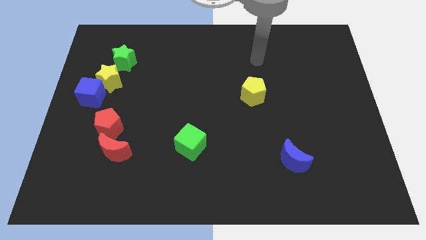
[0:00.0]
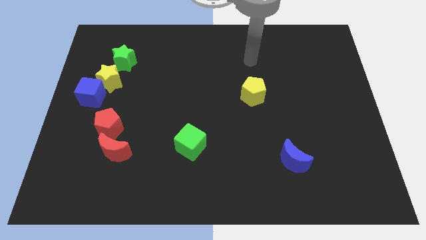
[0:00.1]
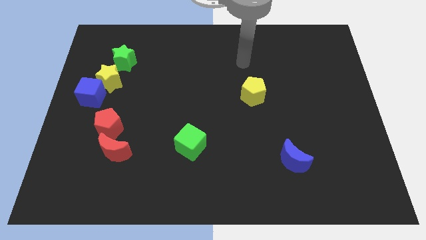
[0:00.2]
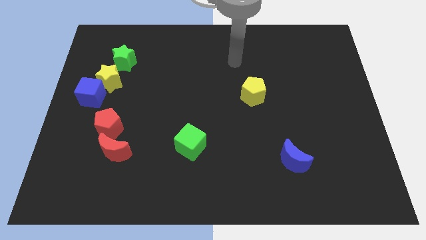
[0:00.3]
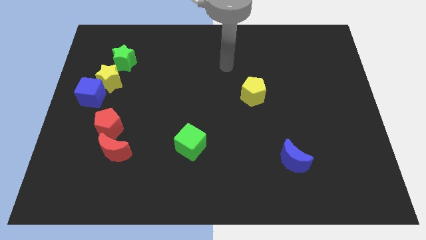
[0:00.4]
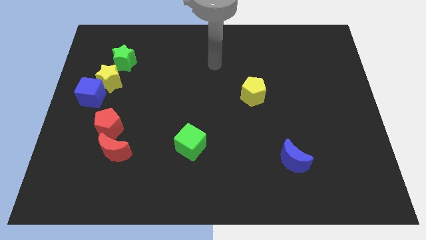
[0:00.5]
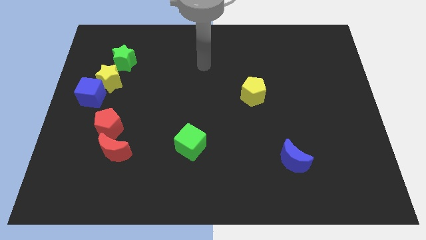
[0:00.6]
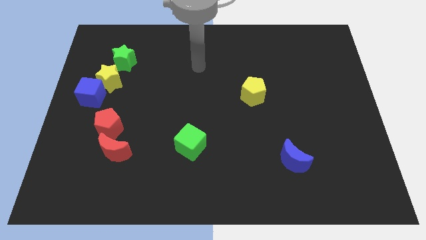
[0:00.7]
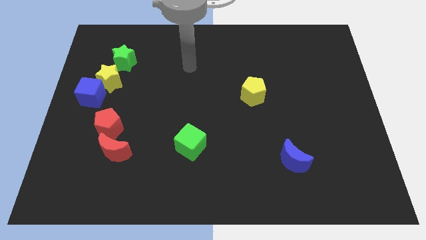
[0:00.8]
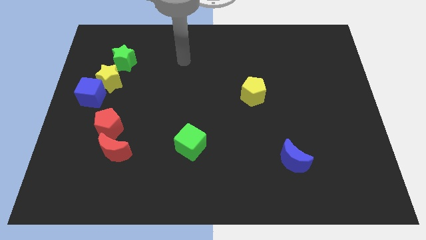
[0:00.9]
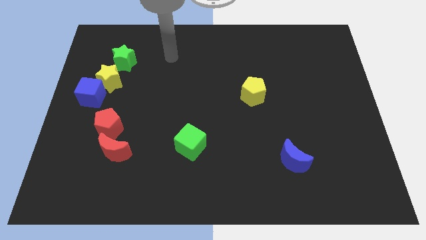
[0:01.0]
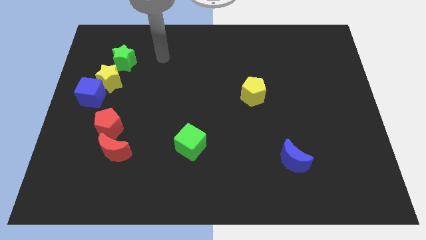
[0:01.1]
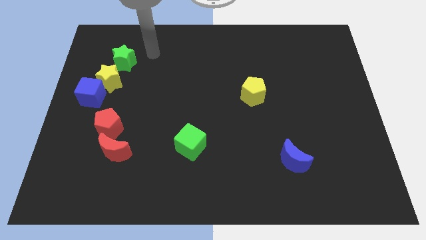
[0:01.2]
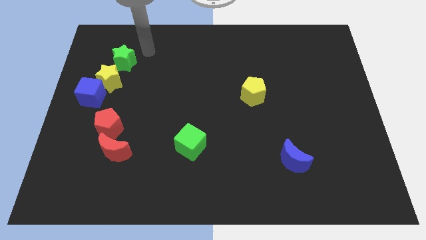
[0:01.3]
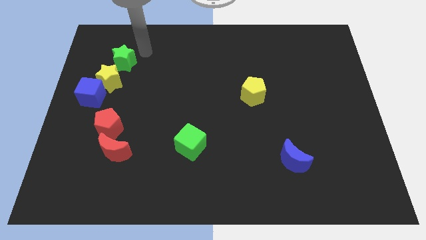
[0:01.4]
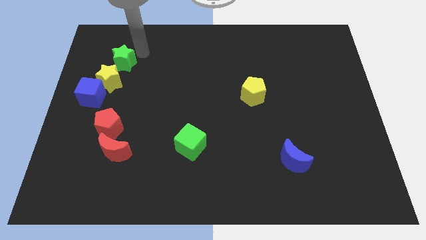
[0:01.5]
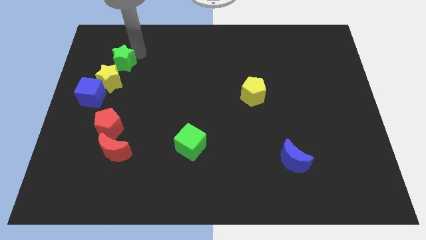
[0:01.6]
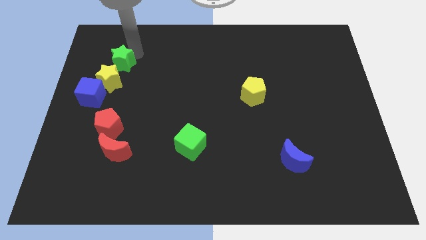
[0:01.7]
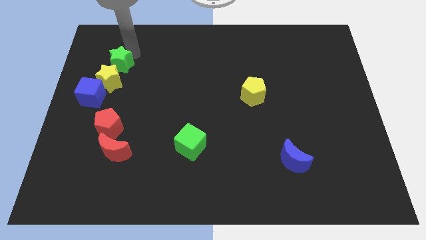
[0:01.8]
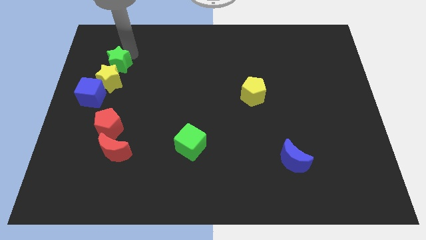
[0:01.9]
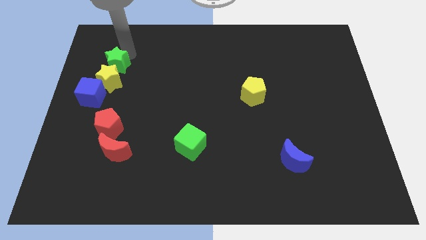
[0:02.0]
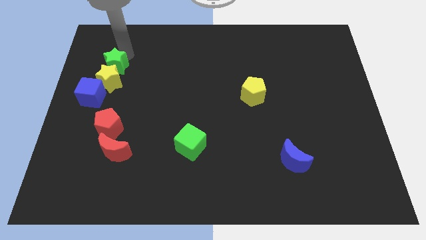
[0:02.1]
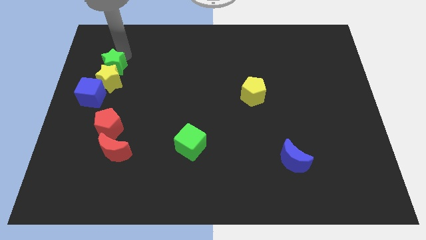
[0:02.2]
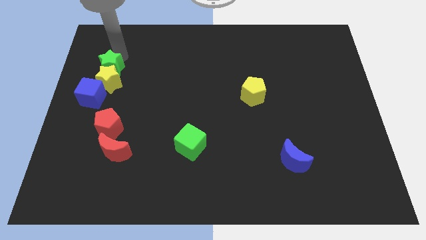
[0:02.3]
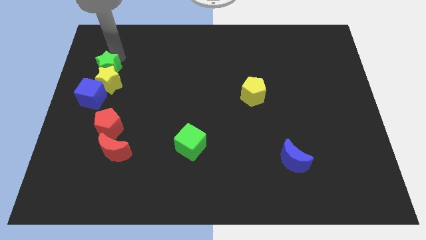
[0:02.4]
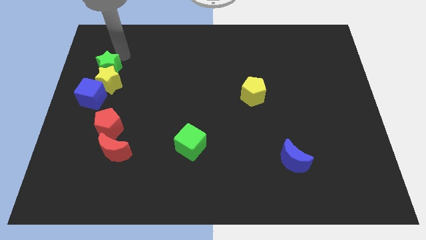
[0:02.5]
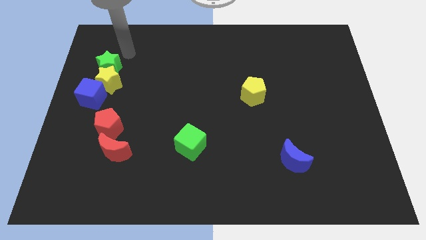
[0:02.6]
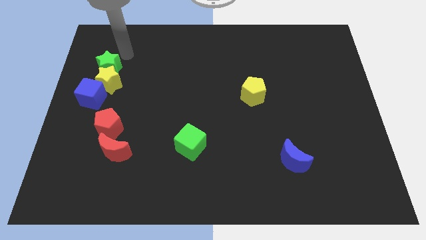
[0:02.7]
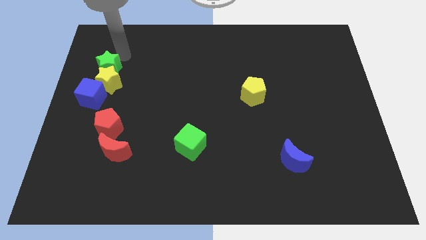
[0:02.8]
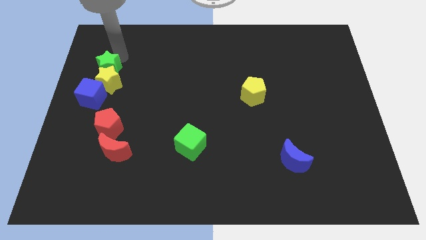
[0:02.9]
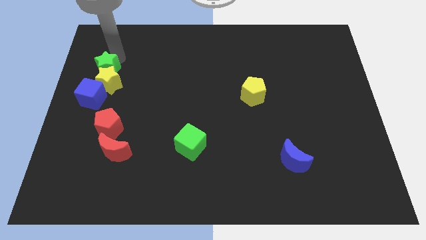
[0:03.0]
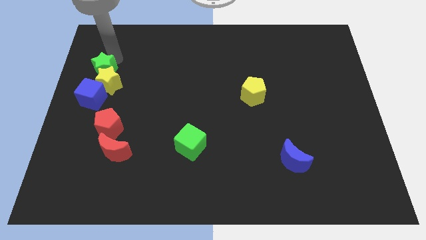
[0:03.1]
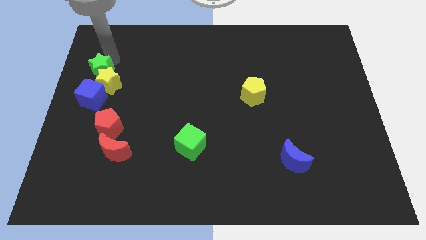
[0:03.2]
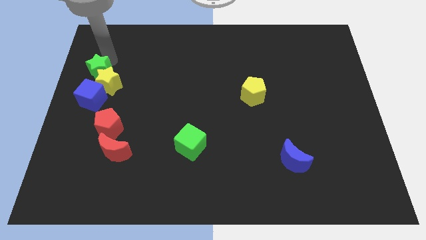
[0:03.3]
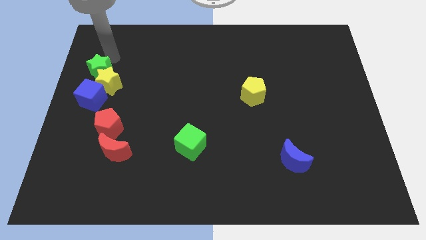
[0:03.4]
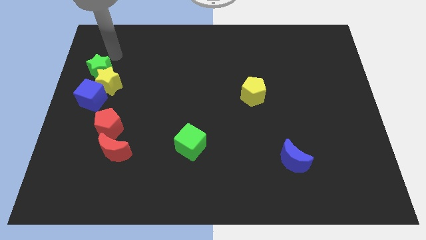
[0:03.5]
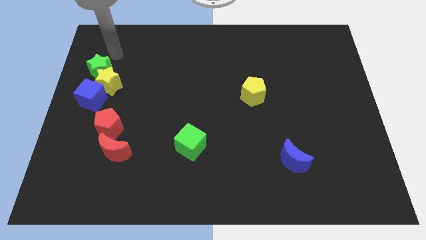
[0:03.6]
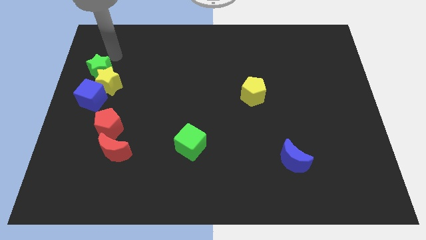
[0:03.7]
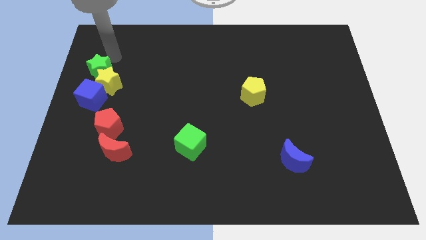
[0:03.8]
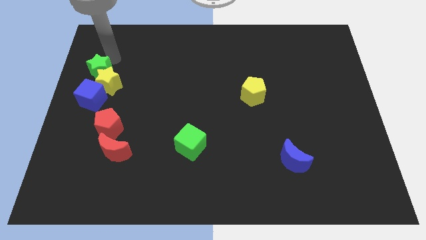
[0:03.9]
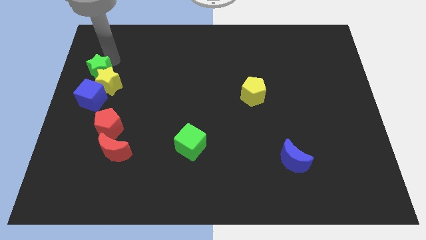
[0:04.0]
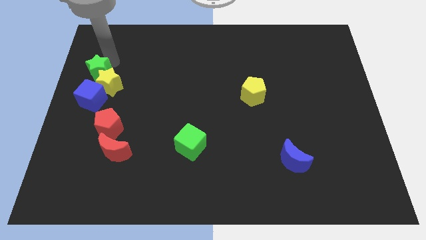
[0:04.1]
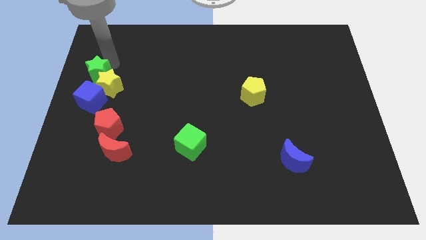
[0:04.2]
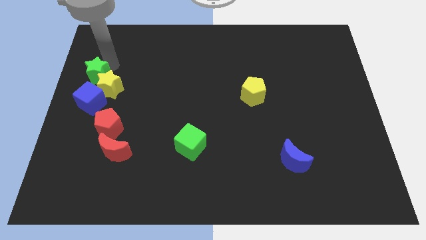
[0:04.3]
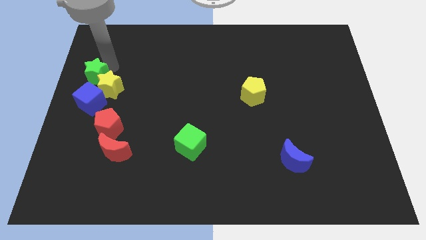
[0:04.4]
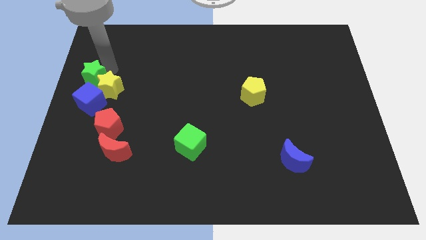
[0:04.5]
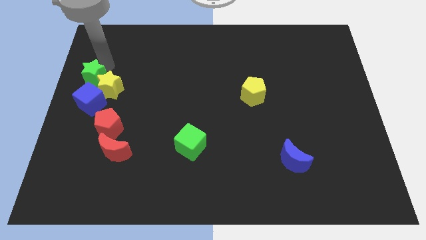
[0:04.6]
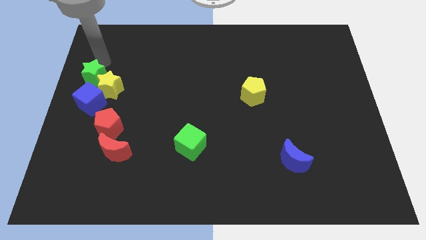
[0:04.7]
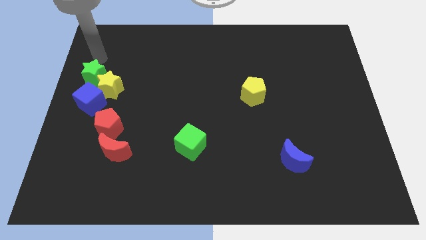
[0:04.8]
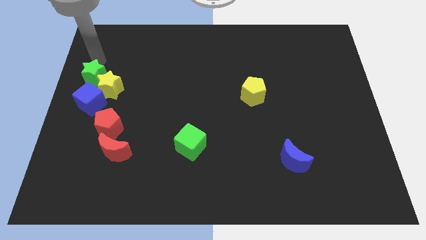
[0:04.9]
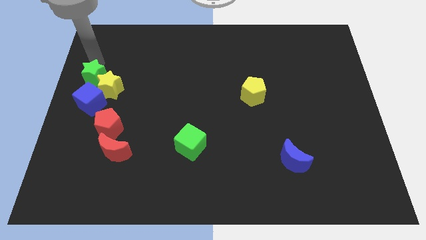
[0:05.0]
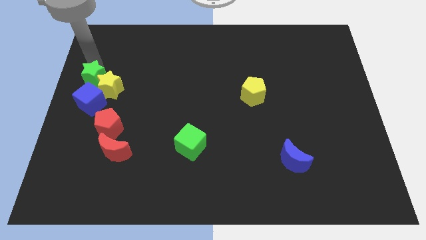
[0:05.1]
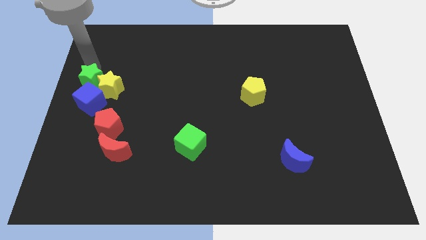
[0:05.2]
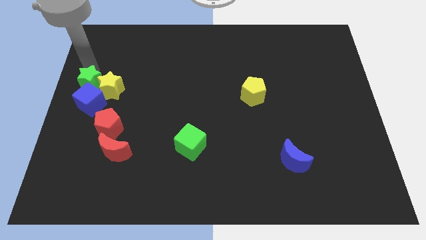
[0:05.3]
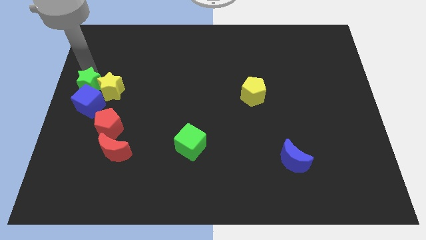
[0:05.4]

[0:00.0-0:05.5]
put the green star next to the blue cube
